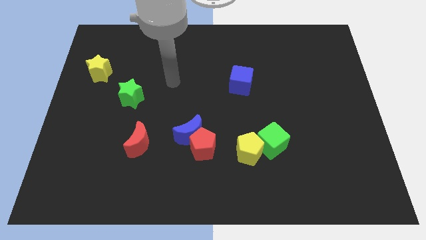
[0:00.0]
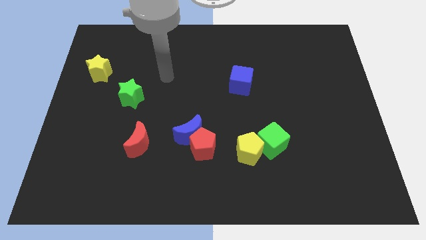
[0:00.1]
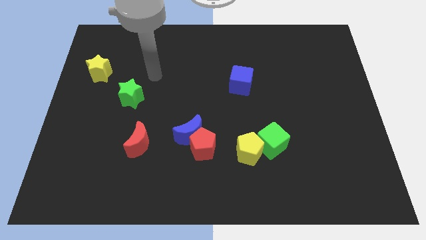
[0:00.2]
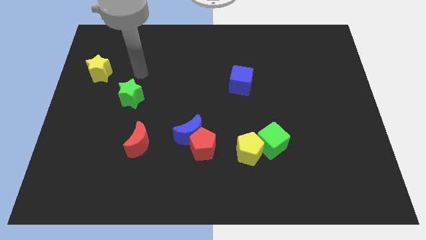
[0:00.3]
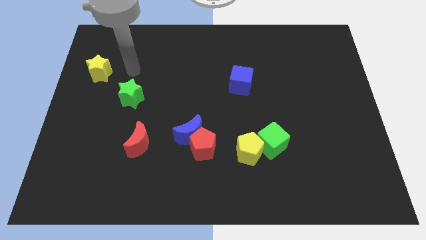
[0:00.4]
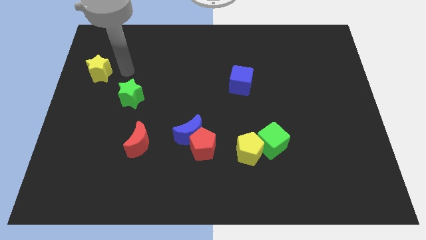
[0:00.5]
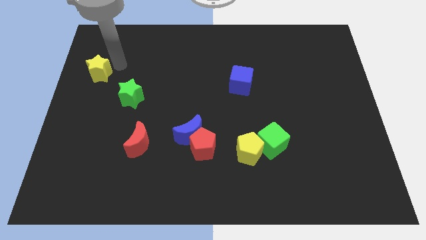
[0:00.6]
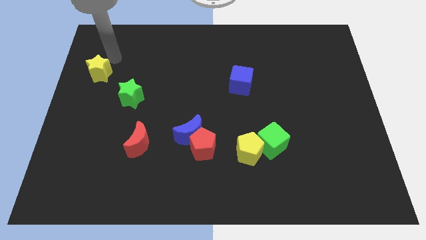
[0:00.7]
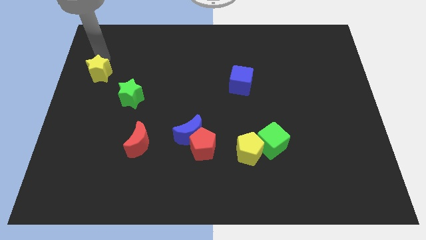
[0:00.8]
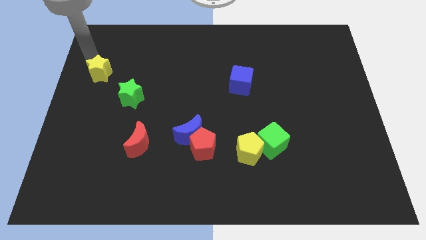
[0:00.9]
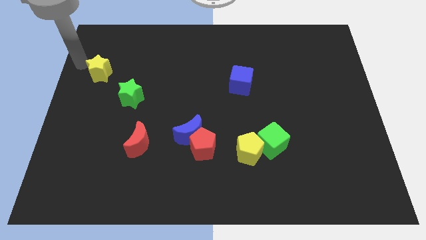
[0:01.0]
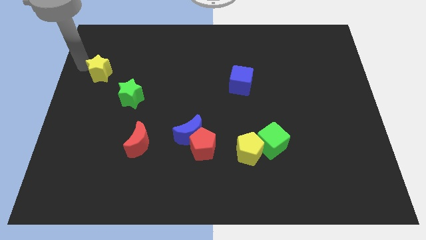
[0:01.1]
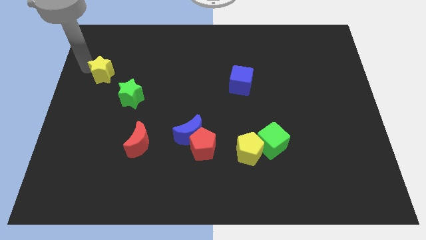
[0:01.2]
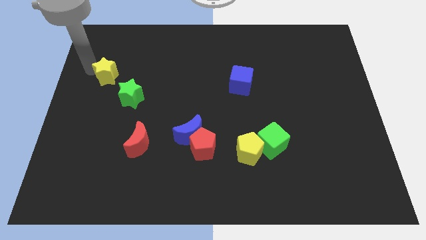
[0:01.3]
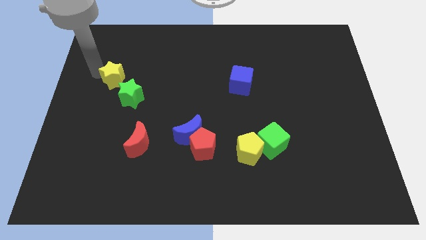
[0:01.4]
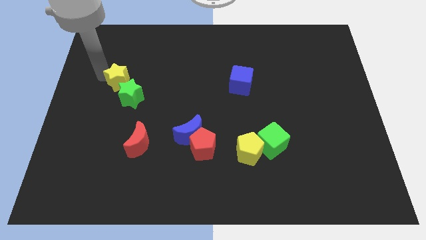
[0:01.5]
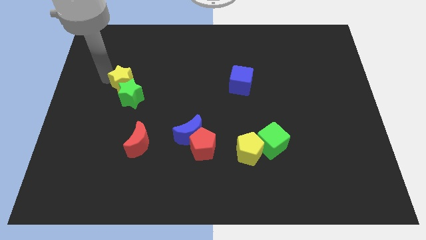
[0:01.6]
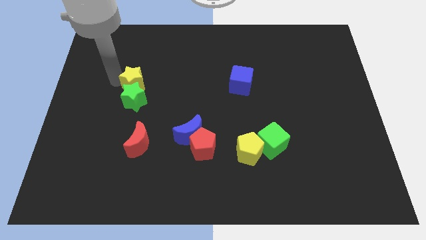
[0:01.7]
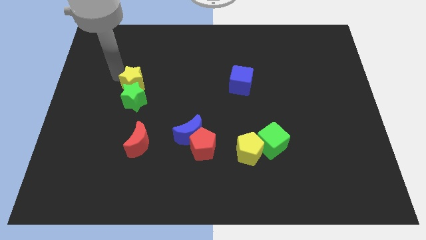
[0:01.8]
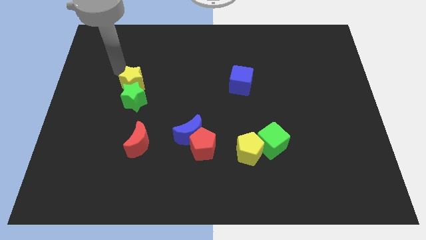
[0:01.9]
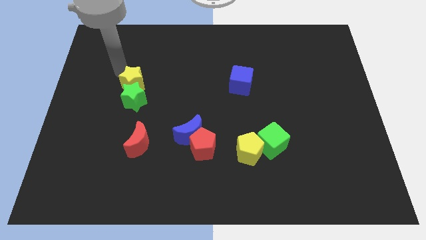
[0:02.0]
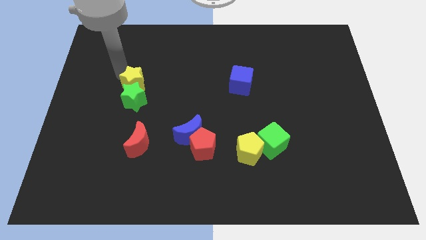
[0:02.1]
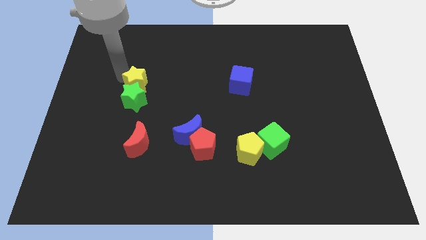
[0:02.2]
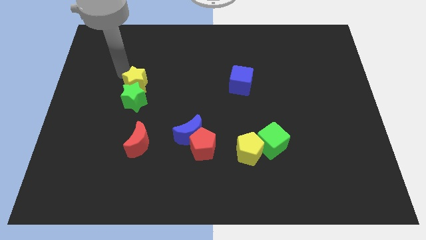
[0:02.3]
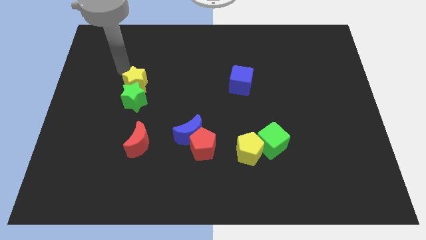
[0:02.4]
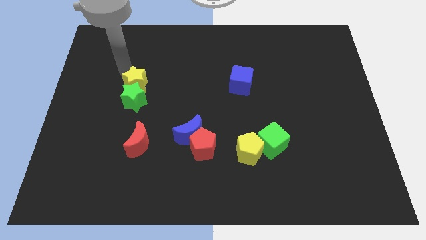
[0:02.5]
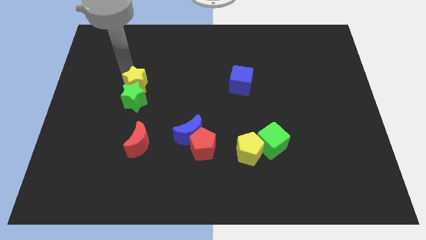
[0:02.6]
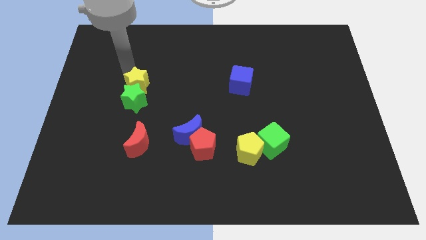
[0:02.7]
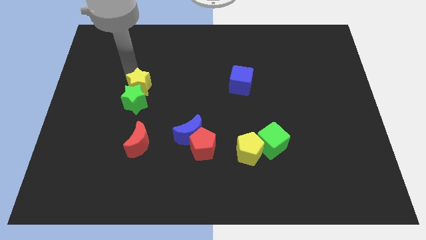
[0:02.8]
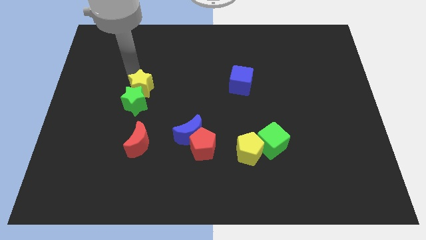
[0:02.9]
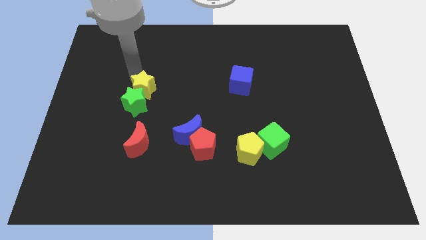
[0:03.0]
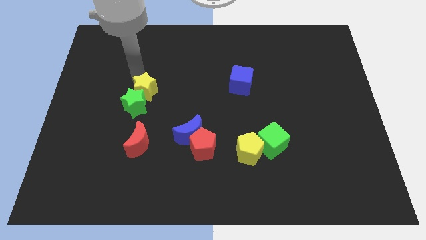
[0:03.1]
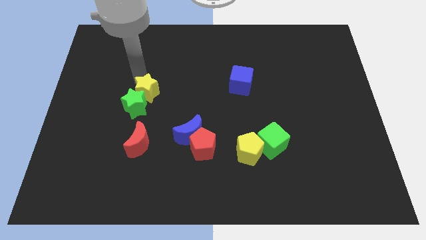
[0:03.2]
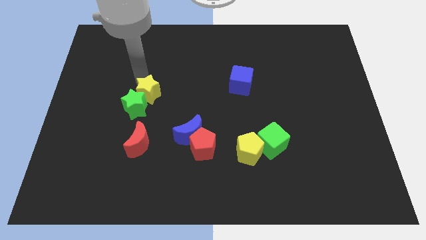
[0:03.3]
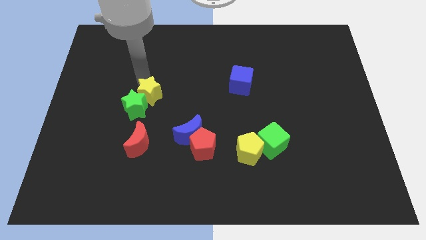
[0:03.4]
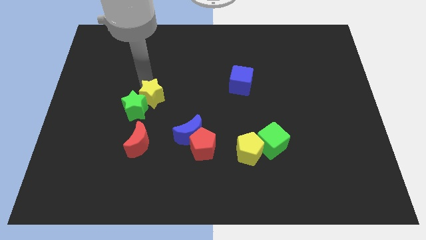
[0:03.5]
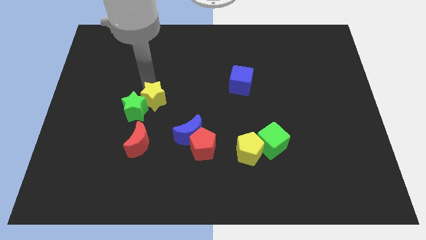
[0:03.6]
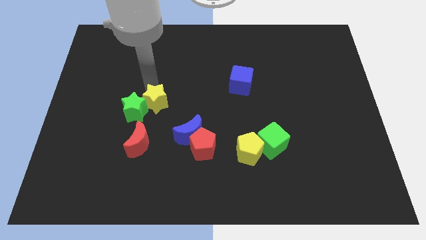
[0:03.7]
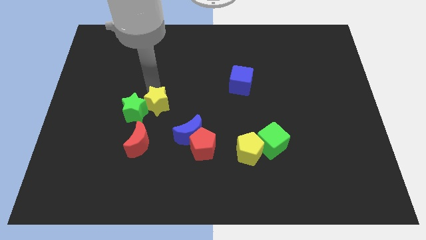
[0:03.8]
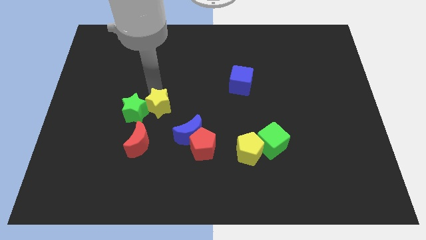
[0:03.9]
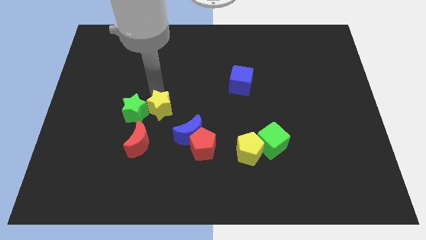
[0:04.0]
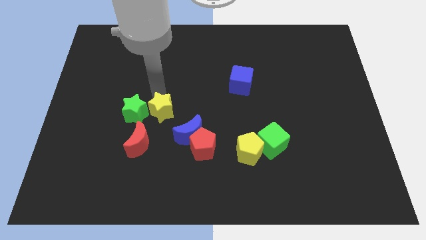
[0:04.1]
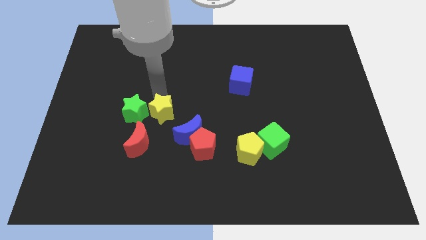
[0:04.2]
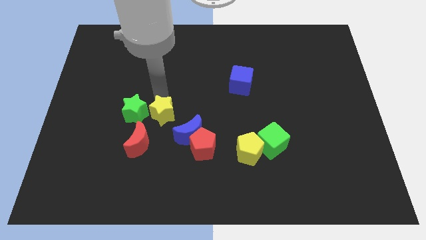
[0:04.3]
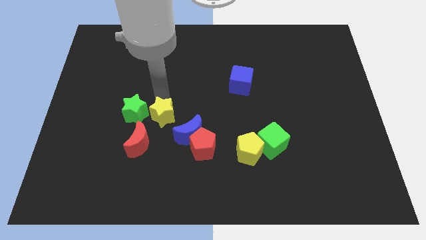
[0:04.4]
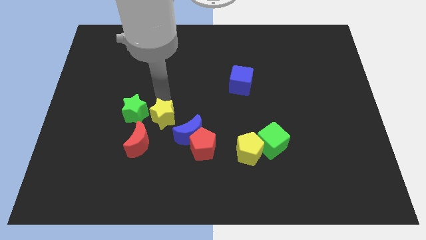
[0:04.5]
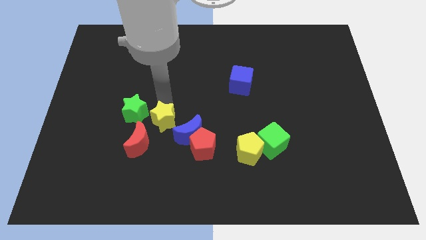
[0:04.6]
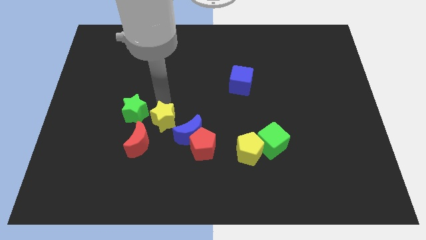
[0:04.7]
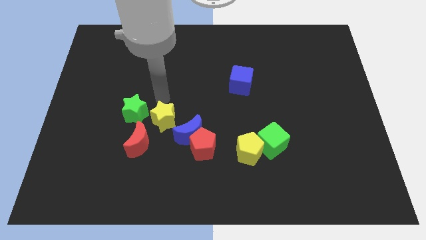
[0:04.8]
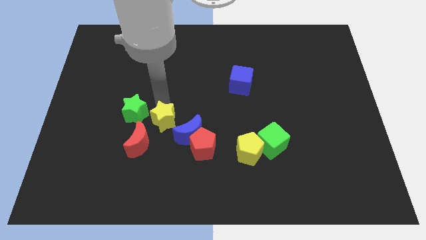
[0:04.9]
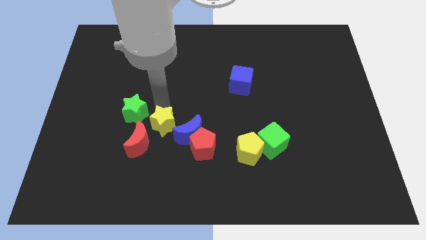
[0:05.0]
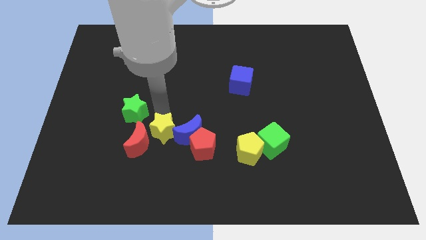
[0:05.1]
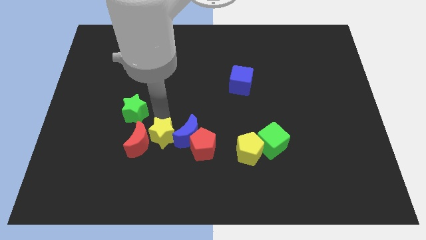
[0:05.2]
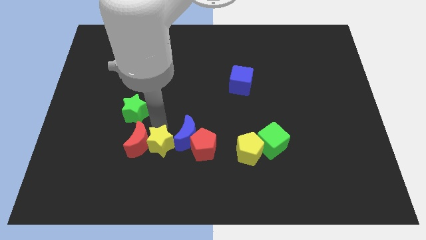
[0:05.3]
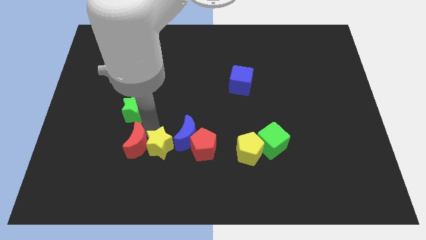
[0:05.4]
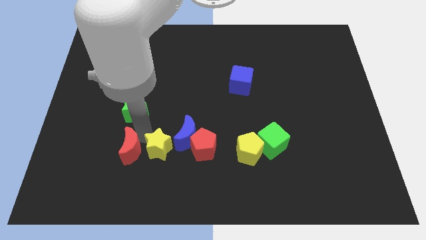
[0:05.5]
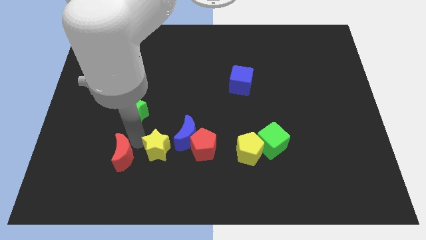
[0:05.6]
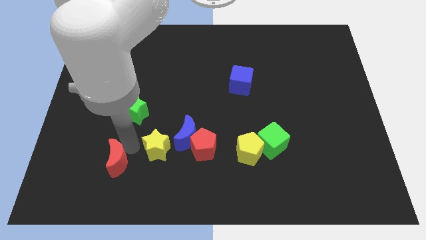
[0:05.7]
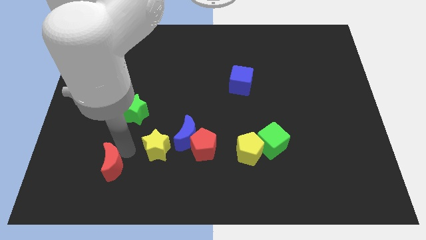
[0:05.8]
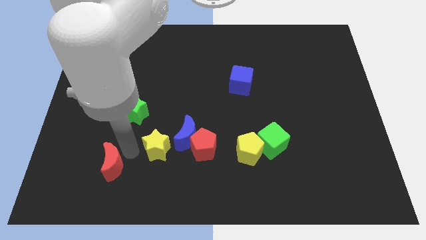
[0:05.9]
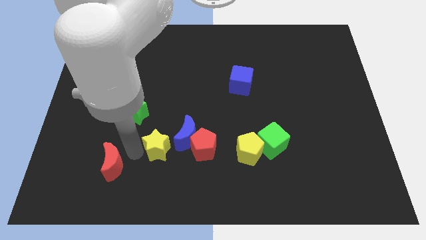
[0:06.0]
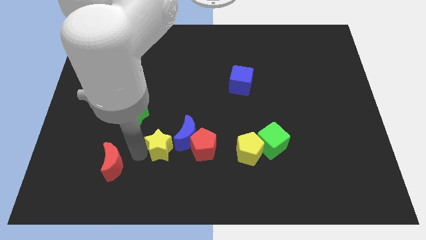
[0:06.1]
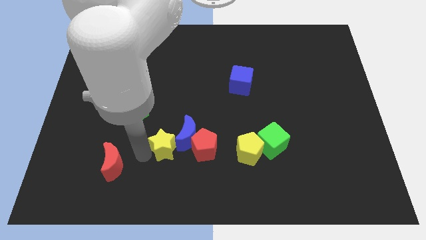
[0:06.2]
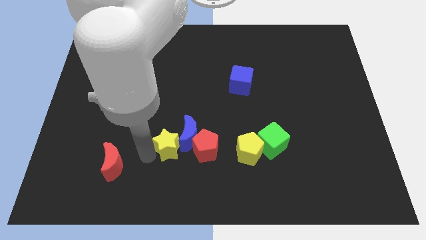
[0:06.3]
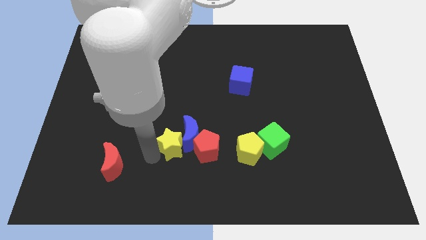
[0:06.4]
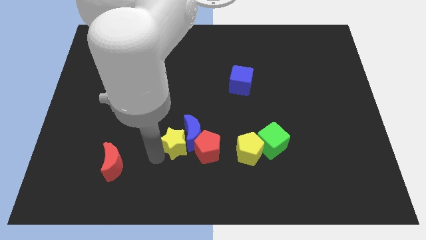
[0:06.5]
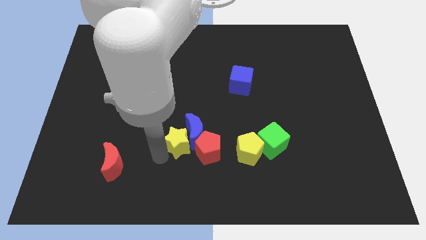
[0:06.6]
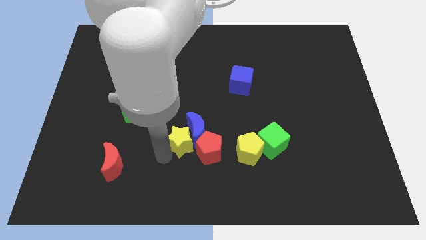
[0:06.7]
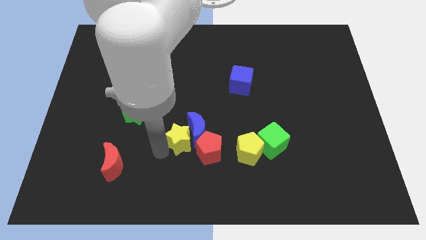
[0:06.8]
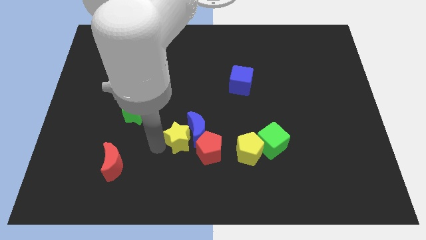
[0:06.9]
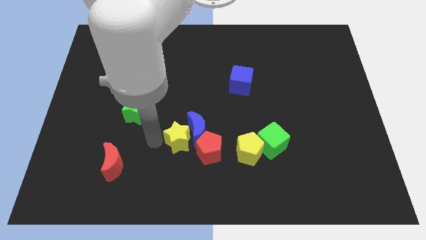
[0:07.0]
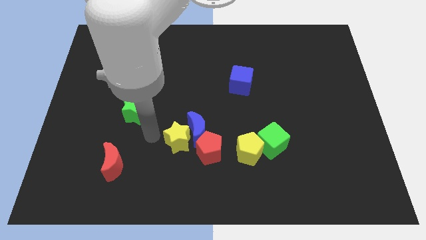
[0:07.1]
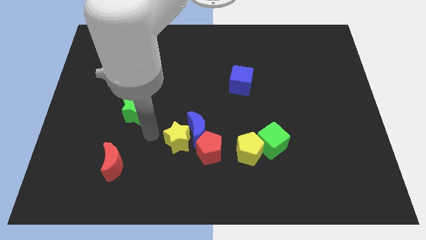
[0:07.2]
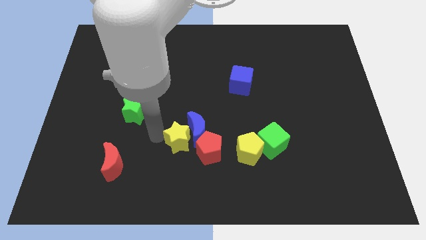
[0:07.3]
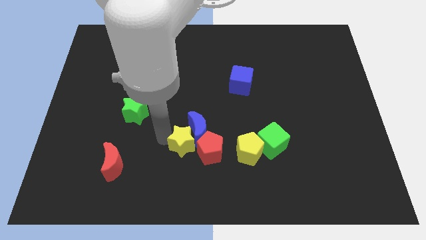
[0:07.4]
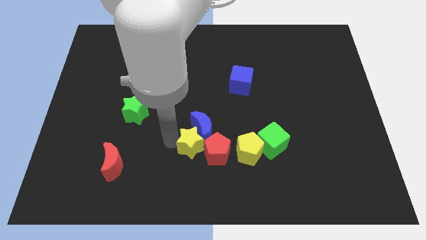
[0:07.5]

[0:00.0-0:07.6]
slide the yellow star close to the red pentagon
